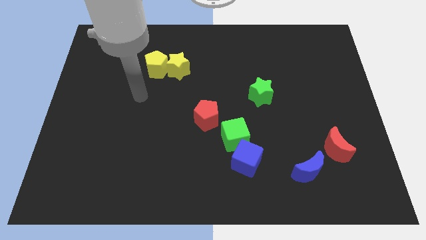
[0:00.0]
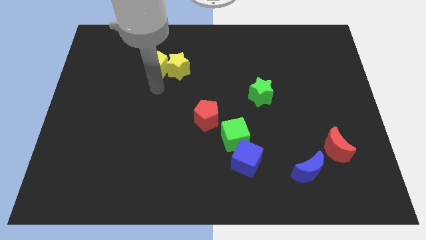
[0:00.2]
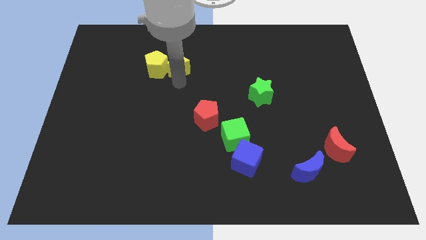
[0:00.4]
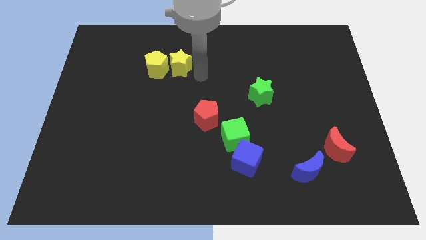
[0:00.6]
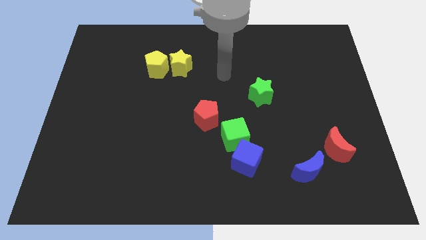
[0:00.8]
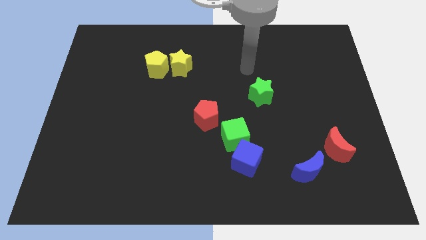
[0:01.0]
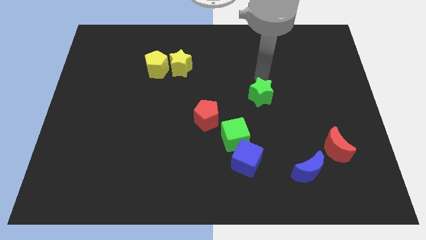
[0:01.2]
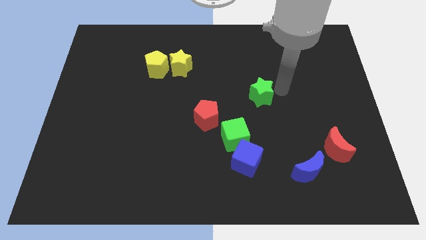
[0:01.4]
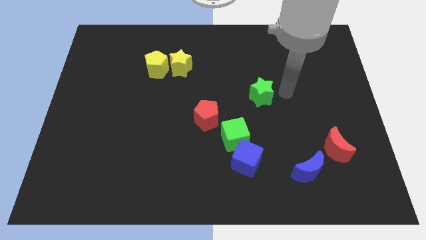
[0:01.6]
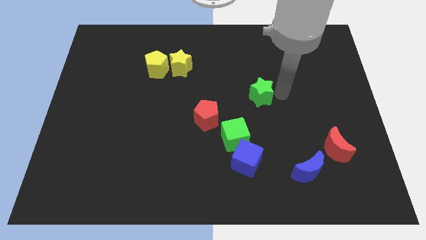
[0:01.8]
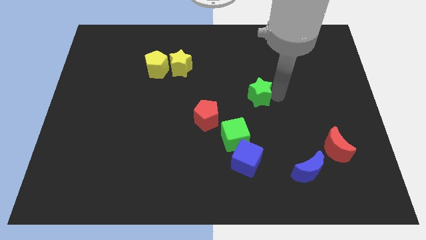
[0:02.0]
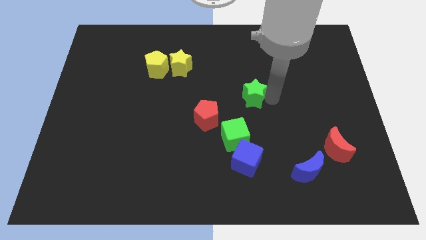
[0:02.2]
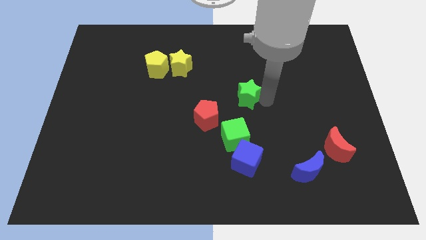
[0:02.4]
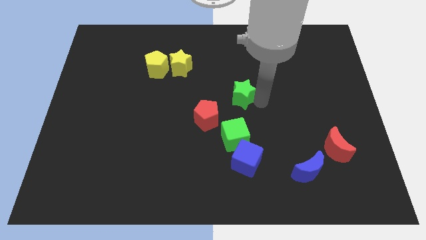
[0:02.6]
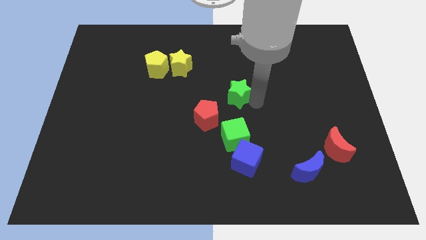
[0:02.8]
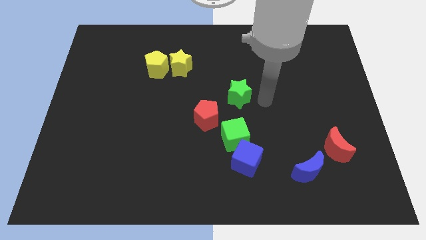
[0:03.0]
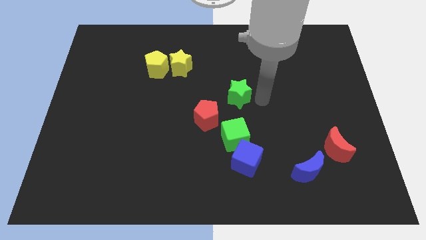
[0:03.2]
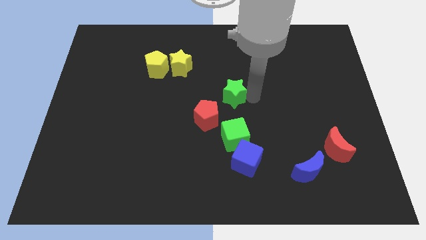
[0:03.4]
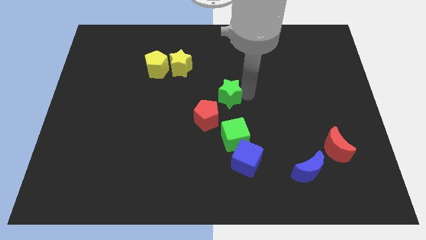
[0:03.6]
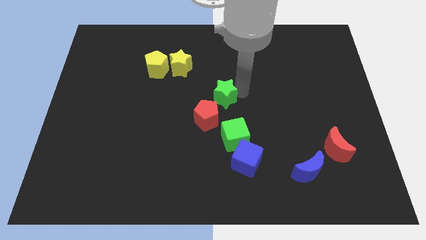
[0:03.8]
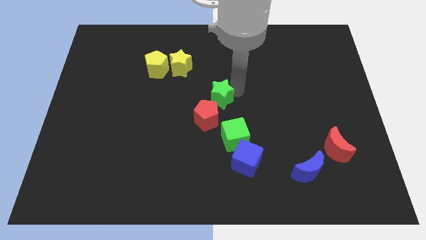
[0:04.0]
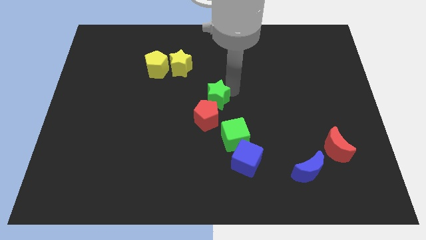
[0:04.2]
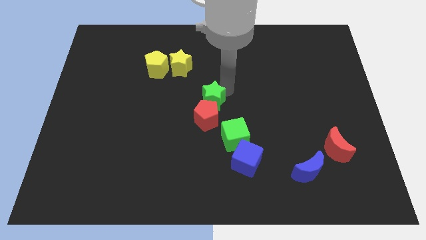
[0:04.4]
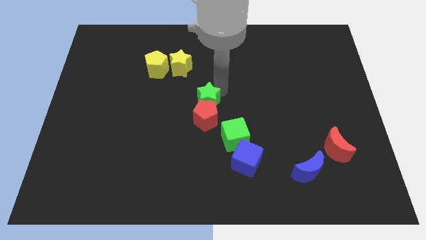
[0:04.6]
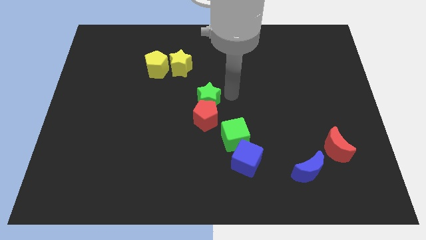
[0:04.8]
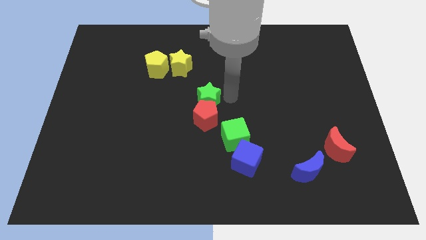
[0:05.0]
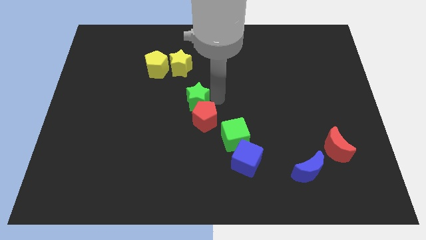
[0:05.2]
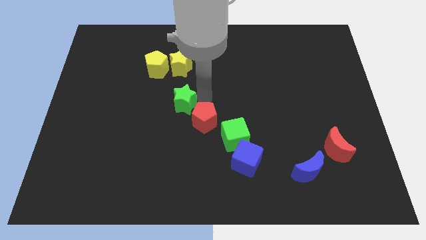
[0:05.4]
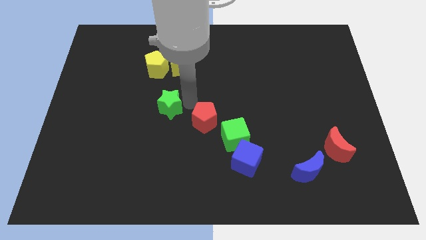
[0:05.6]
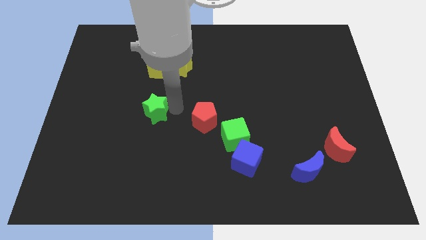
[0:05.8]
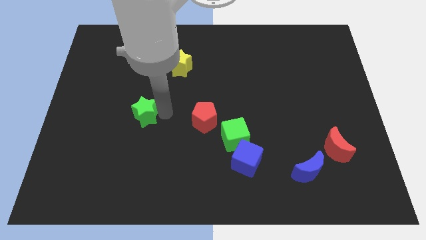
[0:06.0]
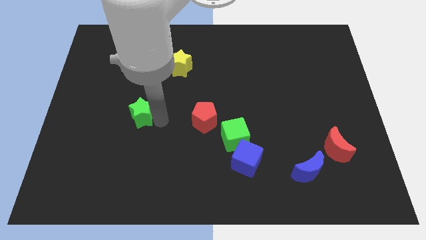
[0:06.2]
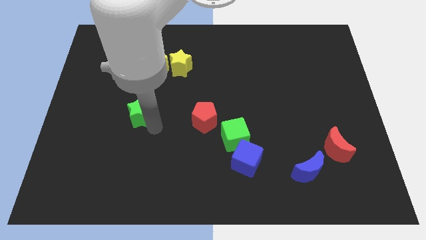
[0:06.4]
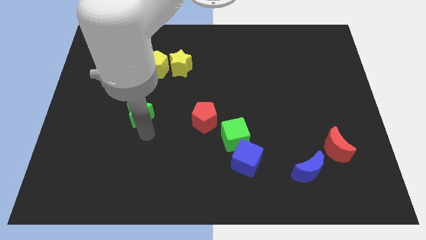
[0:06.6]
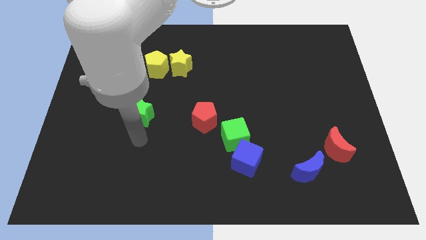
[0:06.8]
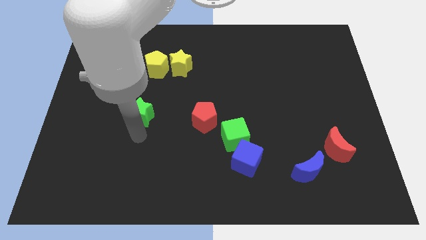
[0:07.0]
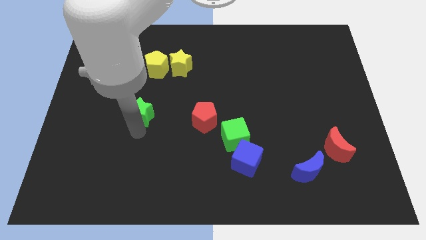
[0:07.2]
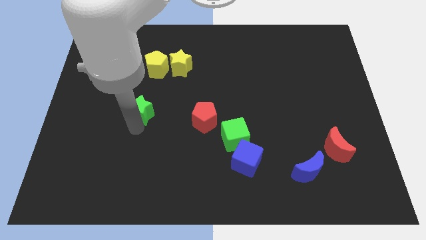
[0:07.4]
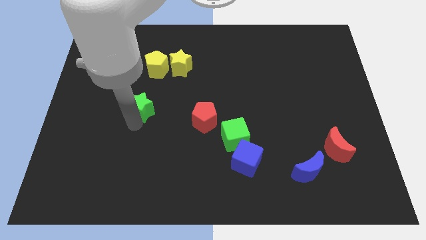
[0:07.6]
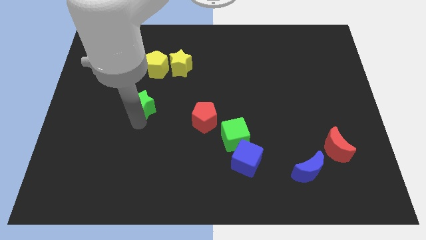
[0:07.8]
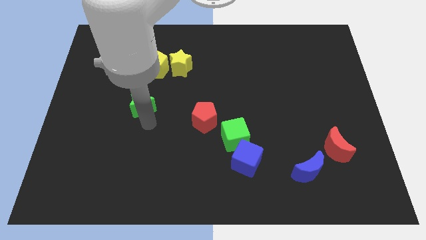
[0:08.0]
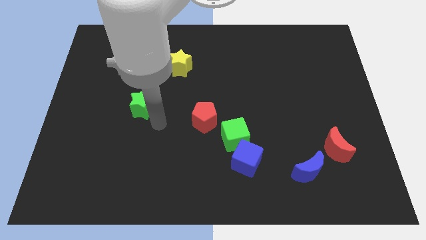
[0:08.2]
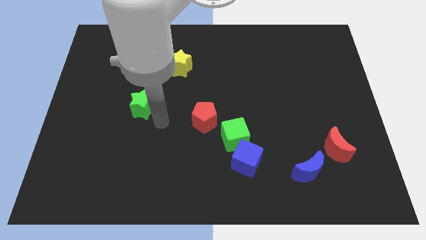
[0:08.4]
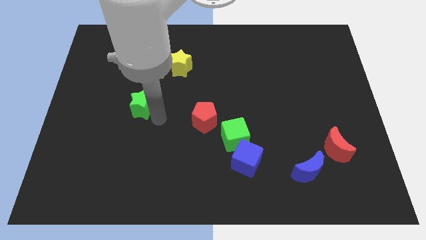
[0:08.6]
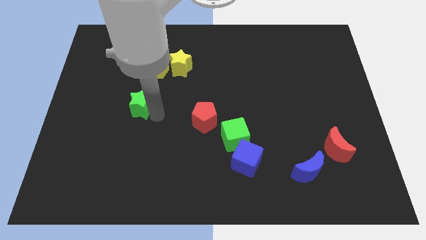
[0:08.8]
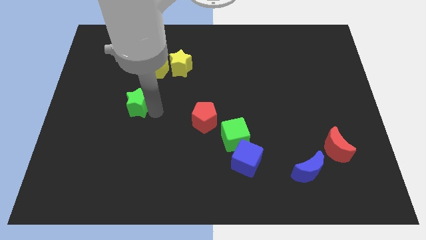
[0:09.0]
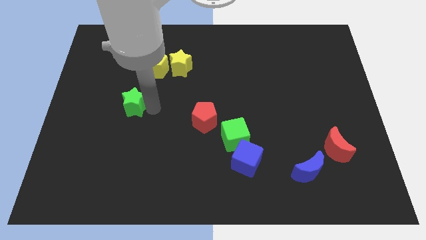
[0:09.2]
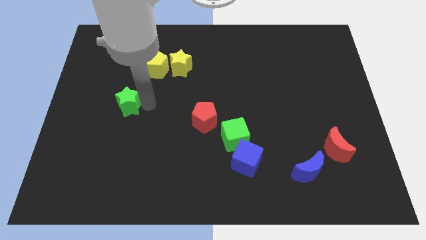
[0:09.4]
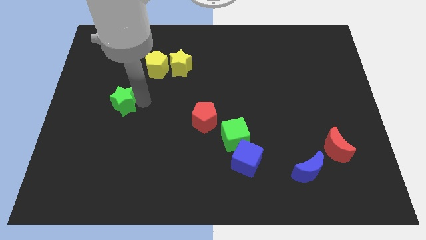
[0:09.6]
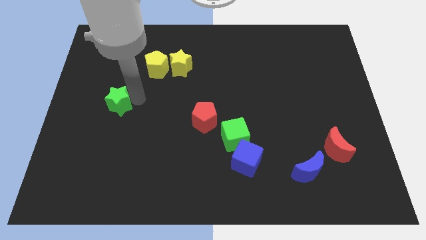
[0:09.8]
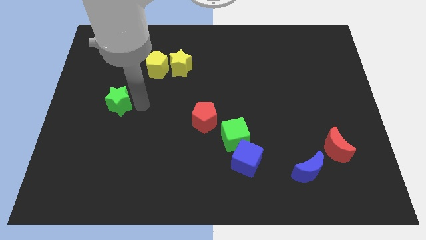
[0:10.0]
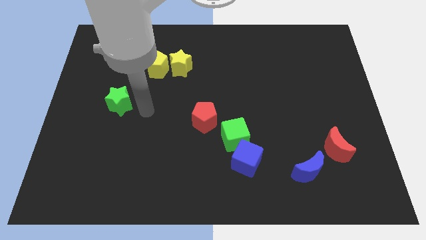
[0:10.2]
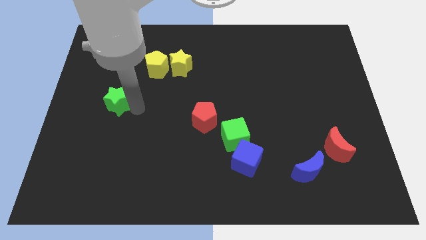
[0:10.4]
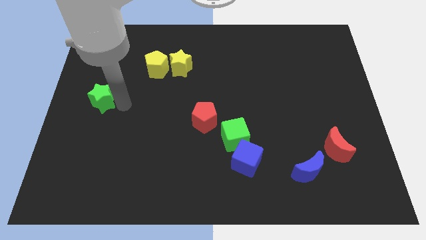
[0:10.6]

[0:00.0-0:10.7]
move the green star to the left side of the board
